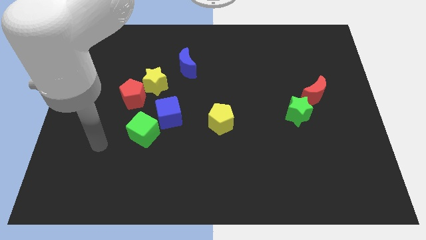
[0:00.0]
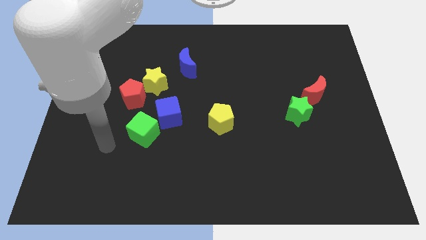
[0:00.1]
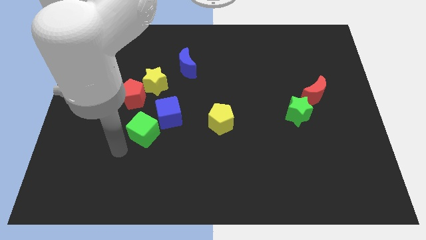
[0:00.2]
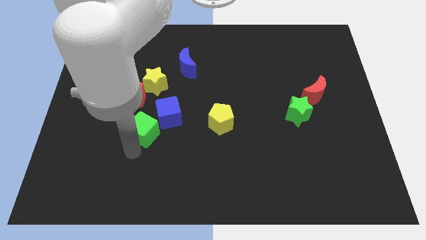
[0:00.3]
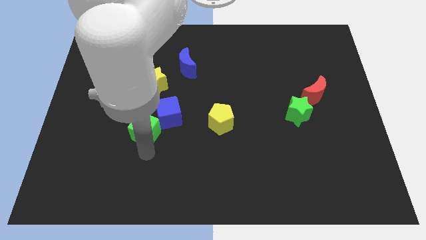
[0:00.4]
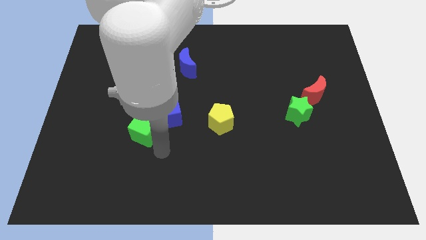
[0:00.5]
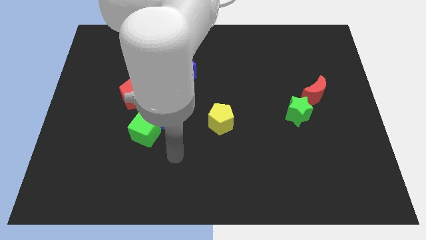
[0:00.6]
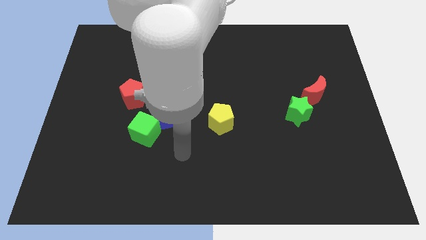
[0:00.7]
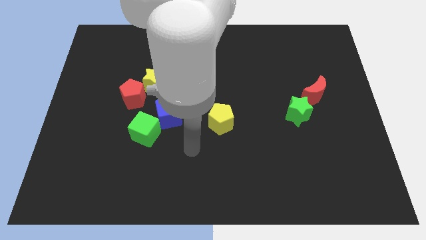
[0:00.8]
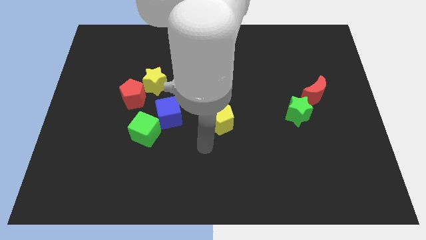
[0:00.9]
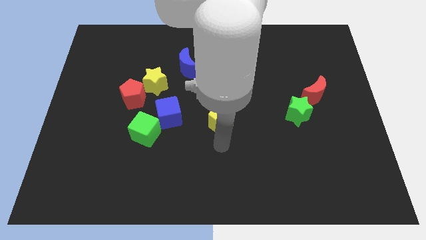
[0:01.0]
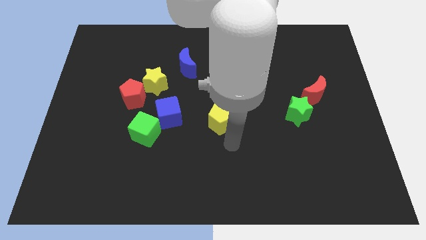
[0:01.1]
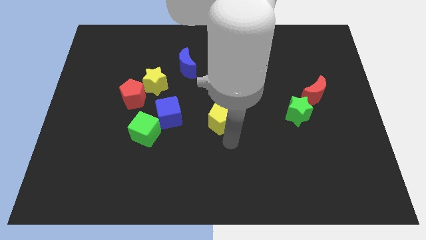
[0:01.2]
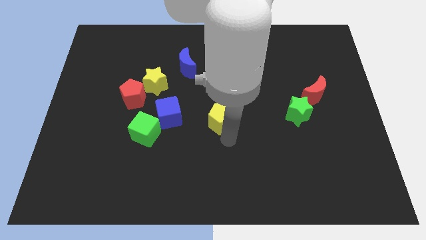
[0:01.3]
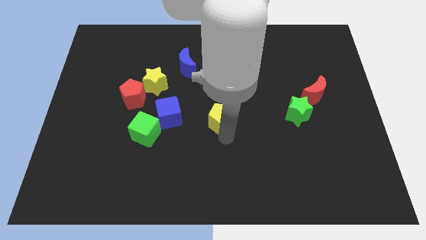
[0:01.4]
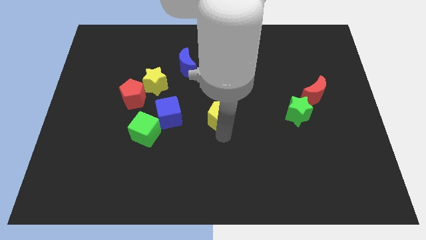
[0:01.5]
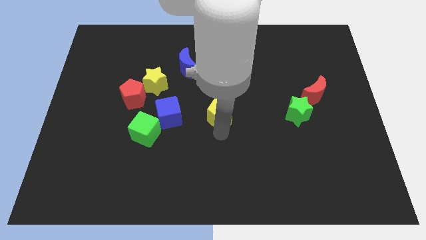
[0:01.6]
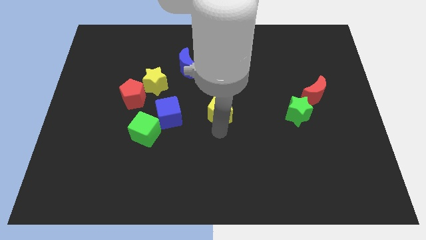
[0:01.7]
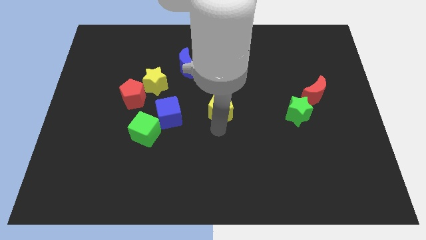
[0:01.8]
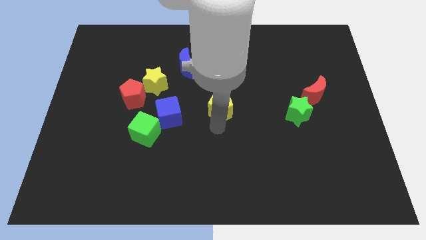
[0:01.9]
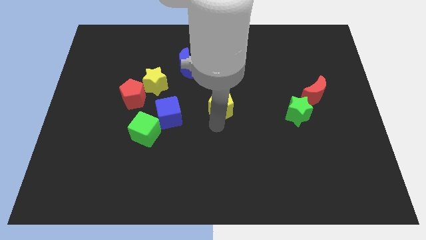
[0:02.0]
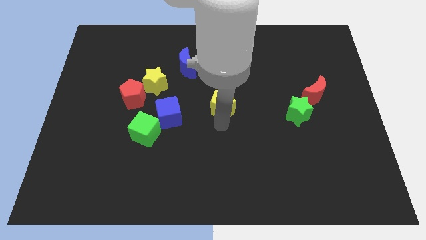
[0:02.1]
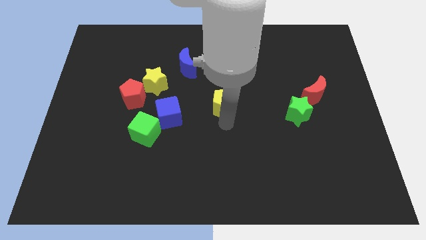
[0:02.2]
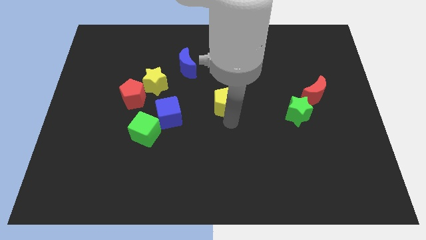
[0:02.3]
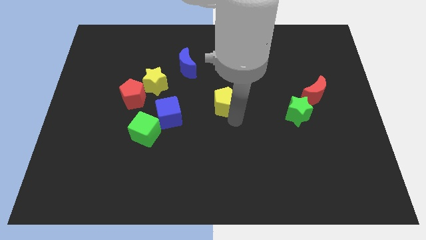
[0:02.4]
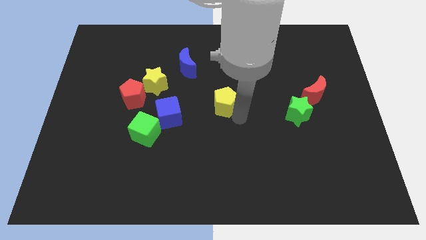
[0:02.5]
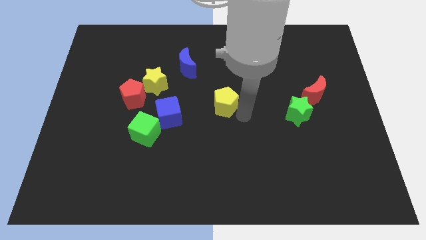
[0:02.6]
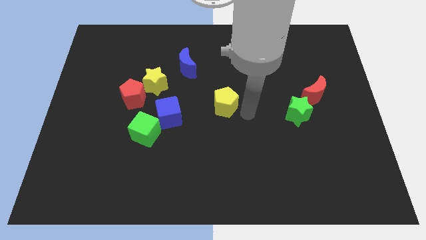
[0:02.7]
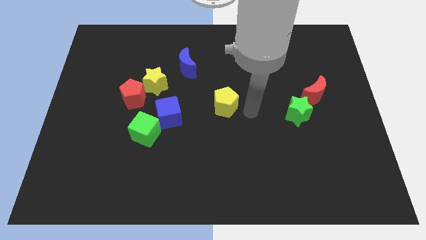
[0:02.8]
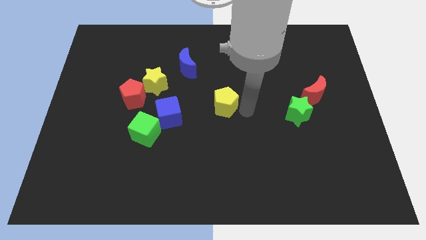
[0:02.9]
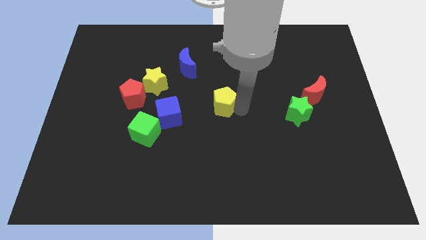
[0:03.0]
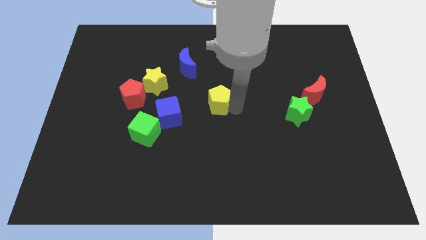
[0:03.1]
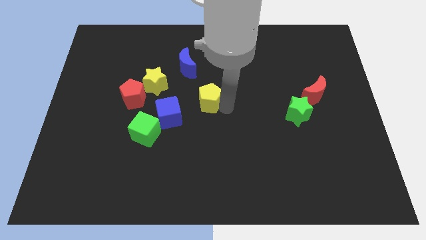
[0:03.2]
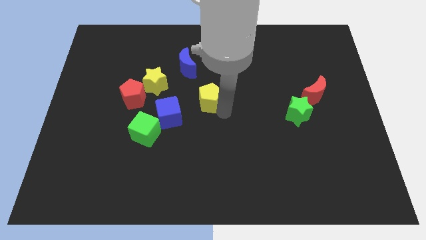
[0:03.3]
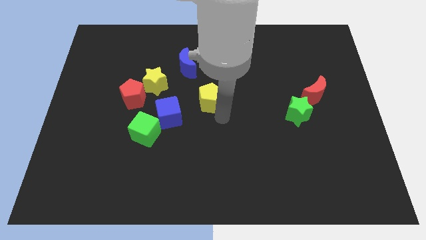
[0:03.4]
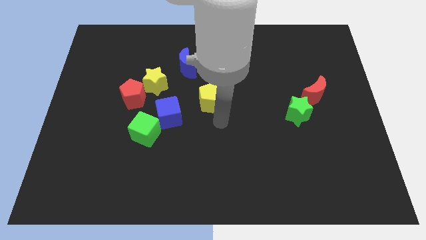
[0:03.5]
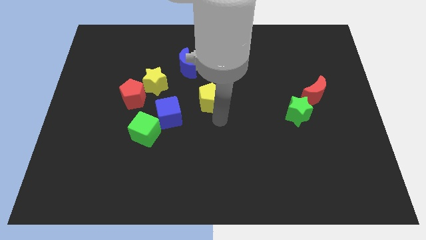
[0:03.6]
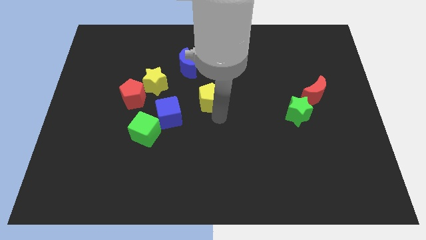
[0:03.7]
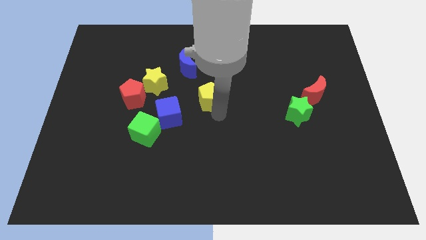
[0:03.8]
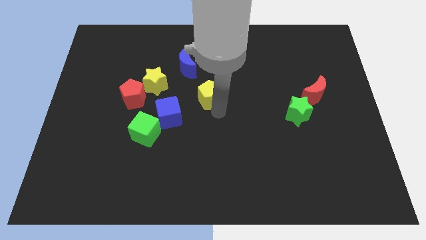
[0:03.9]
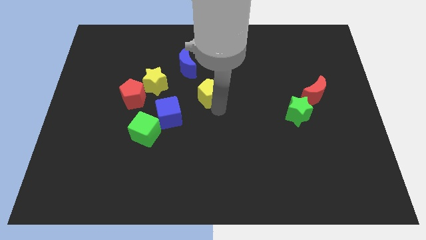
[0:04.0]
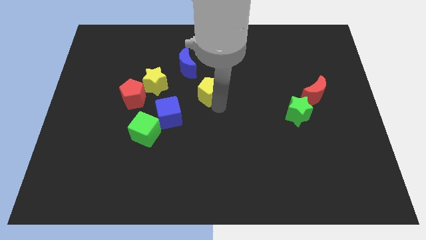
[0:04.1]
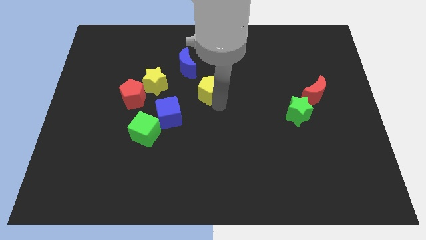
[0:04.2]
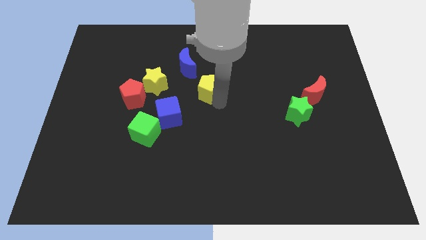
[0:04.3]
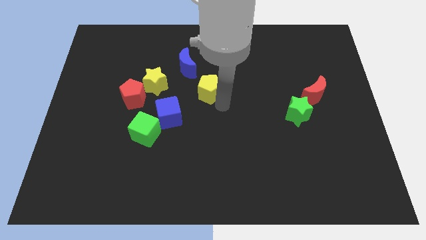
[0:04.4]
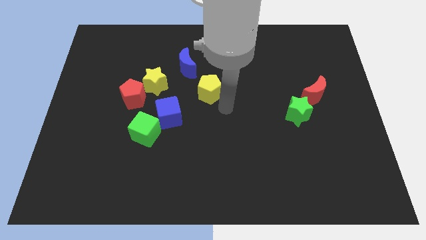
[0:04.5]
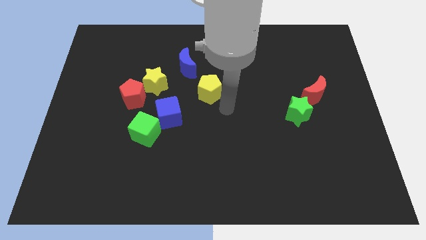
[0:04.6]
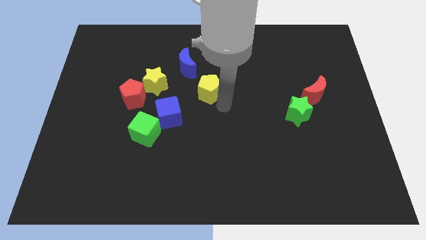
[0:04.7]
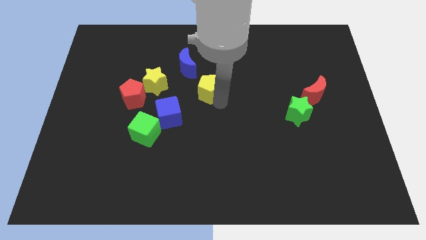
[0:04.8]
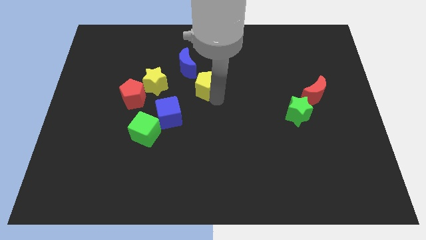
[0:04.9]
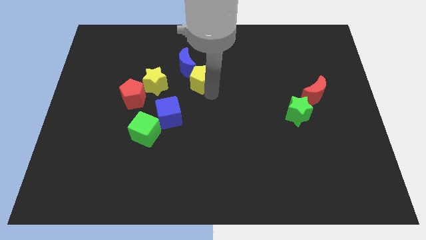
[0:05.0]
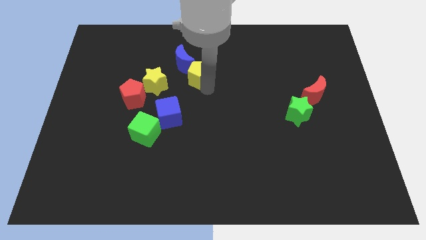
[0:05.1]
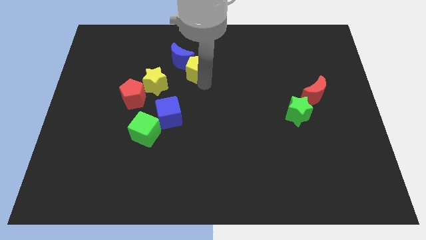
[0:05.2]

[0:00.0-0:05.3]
move the yellow pentagon next to the blue moon

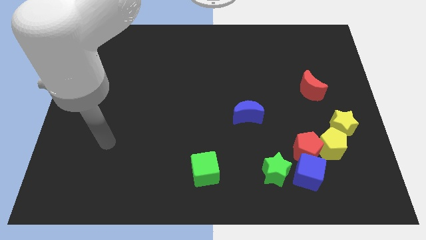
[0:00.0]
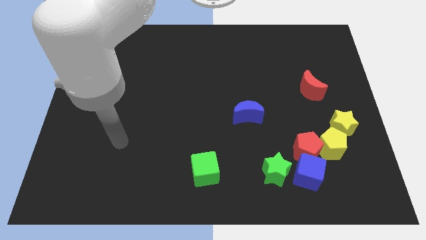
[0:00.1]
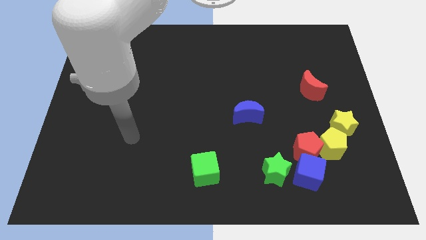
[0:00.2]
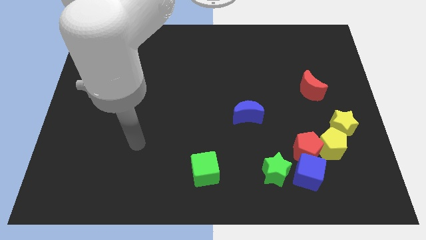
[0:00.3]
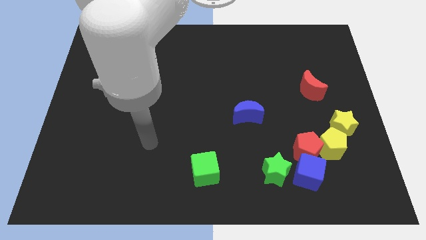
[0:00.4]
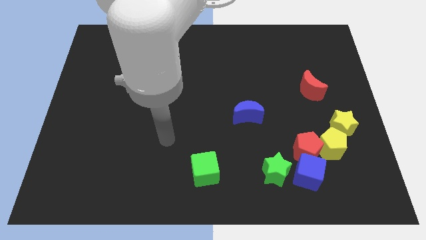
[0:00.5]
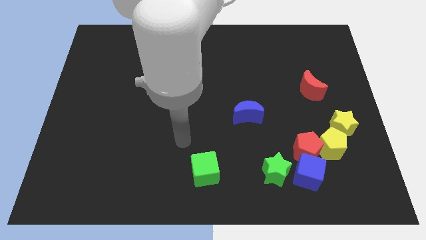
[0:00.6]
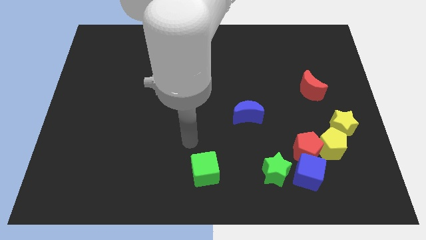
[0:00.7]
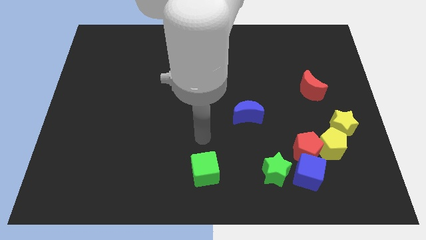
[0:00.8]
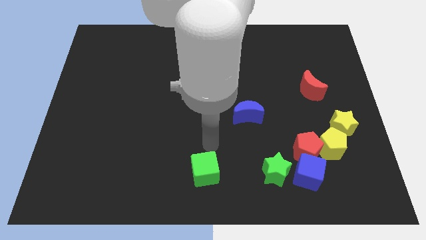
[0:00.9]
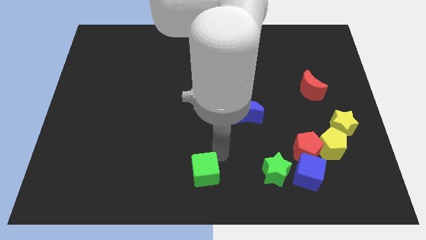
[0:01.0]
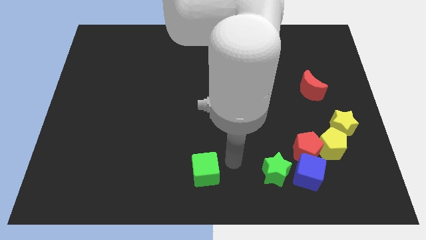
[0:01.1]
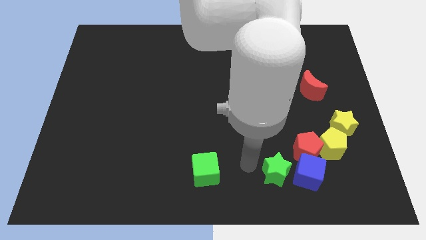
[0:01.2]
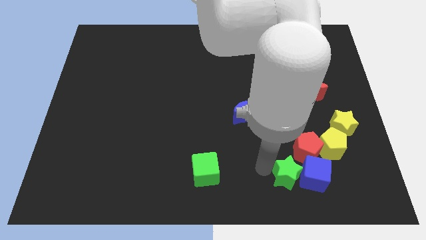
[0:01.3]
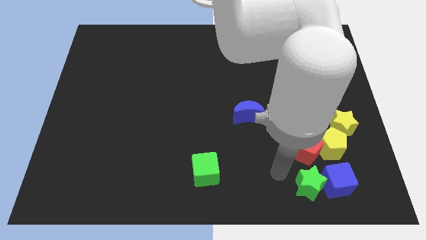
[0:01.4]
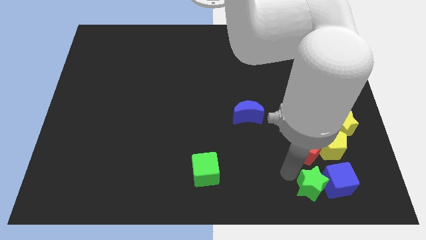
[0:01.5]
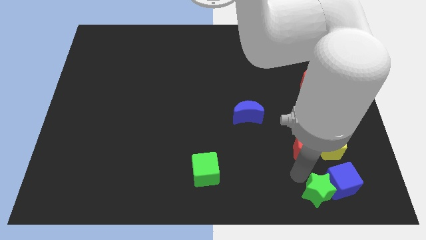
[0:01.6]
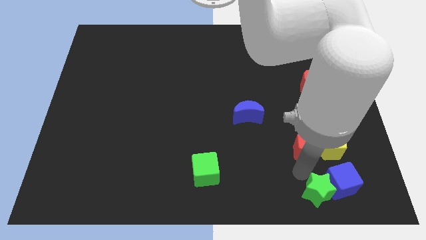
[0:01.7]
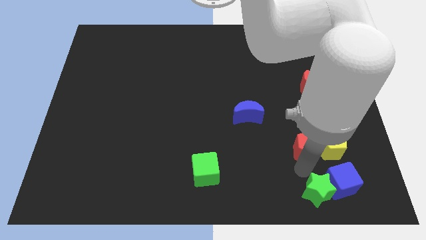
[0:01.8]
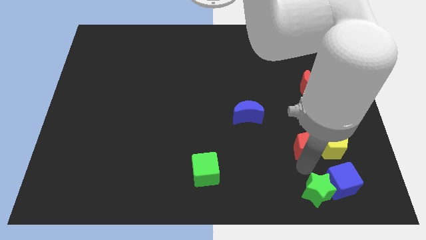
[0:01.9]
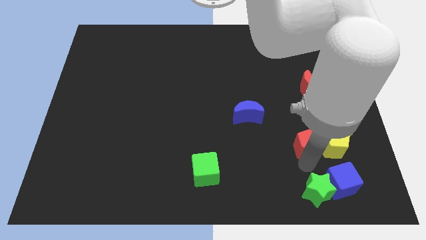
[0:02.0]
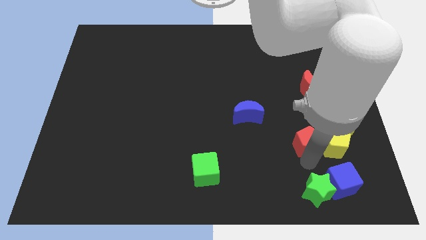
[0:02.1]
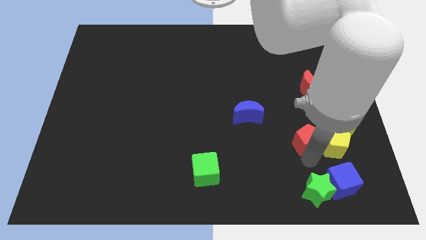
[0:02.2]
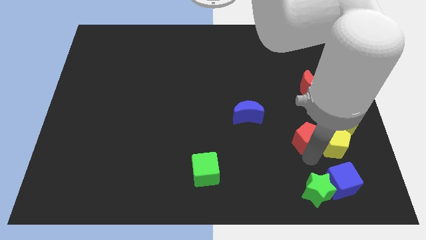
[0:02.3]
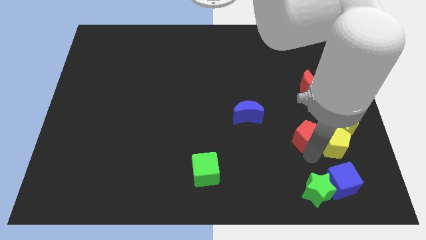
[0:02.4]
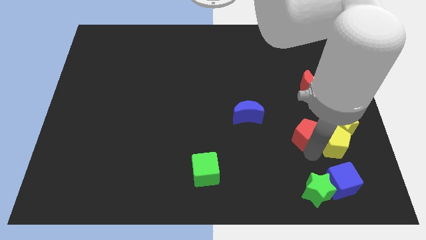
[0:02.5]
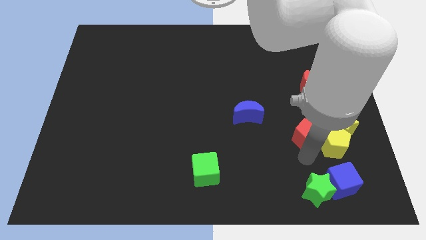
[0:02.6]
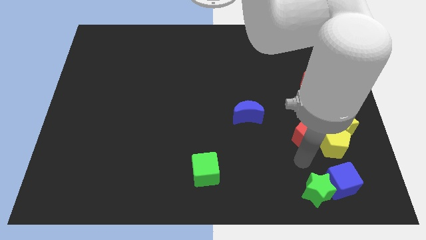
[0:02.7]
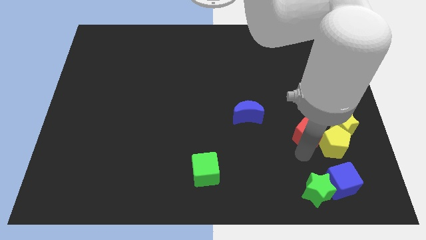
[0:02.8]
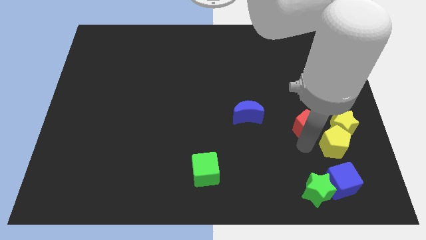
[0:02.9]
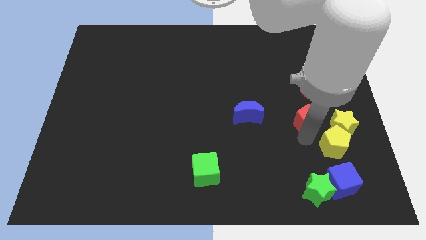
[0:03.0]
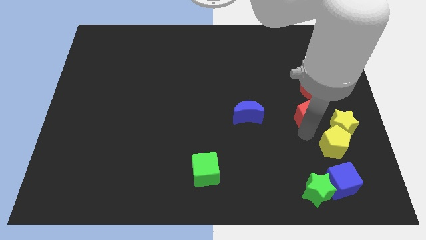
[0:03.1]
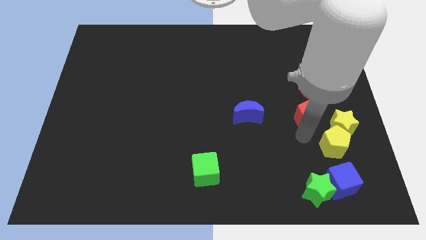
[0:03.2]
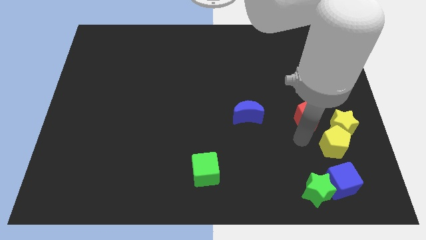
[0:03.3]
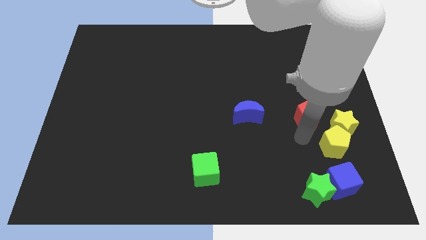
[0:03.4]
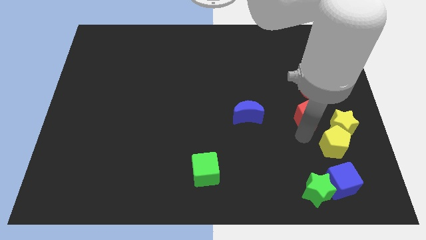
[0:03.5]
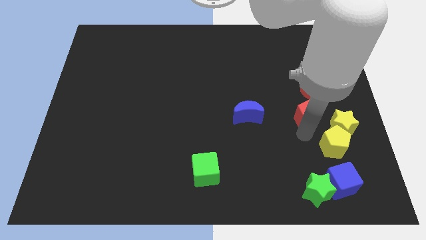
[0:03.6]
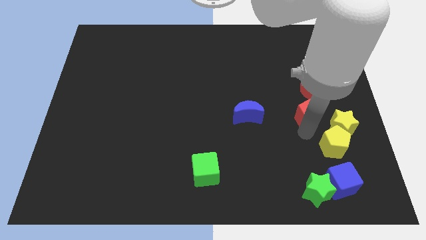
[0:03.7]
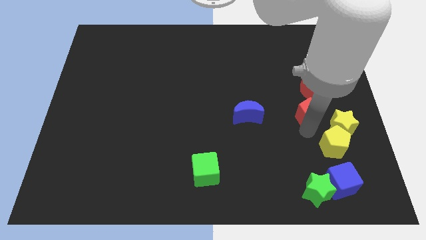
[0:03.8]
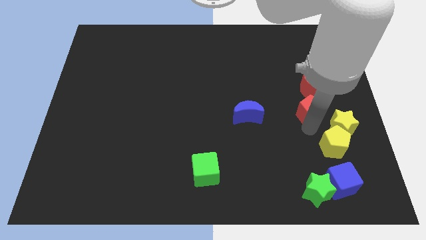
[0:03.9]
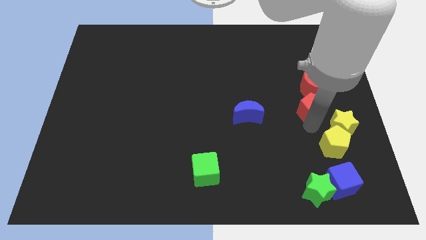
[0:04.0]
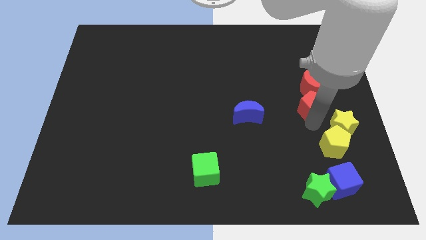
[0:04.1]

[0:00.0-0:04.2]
move the red pentagon to the red moon
